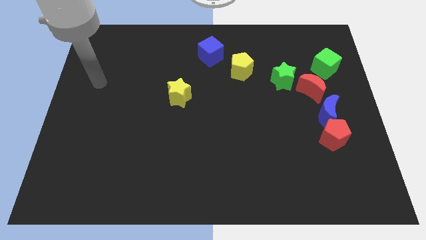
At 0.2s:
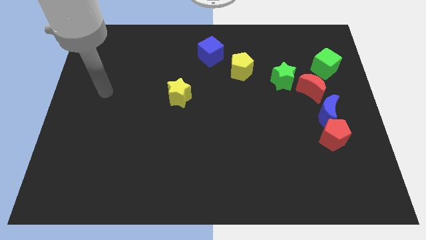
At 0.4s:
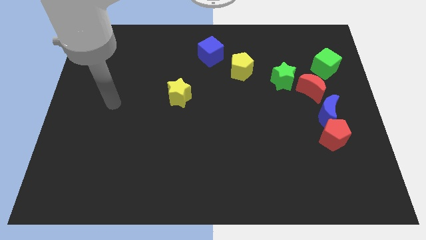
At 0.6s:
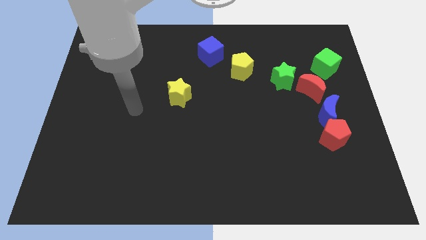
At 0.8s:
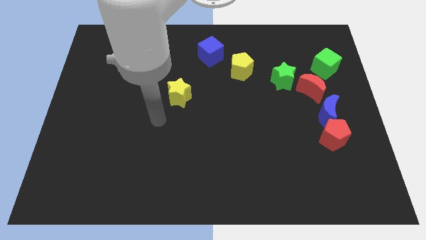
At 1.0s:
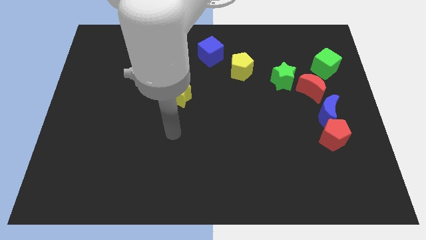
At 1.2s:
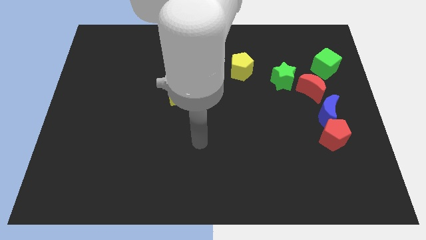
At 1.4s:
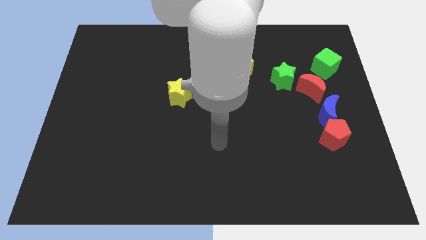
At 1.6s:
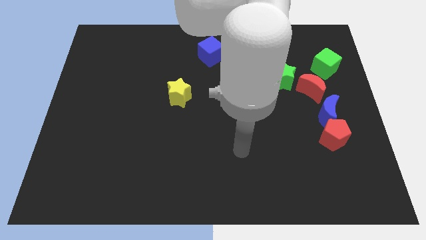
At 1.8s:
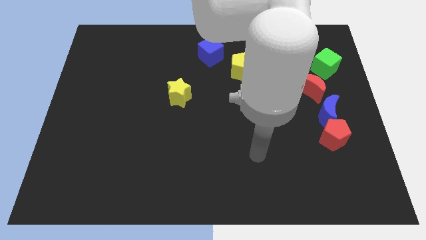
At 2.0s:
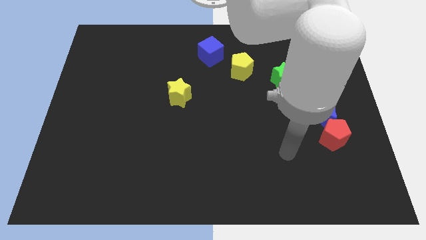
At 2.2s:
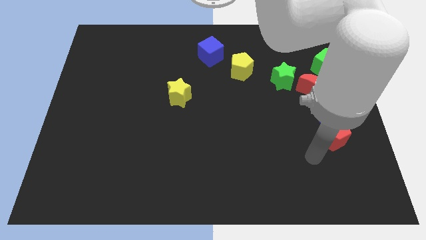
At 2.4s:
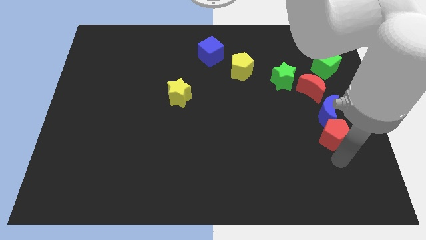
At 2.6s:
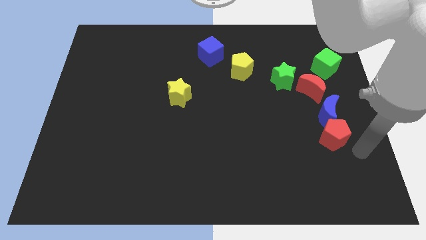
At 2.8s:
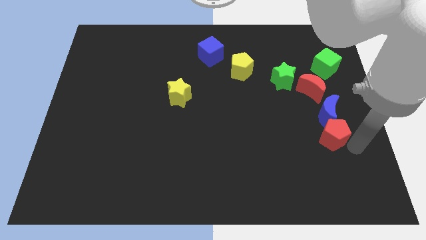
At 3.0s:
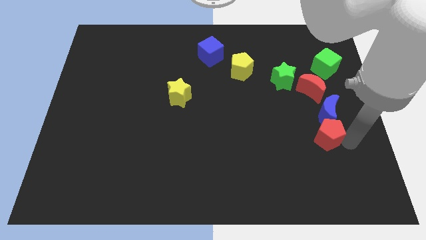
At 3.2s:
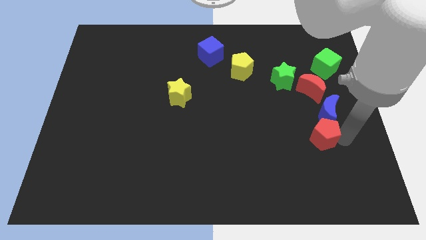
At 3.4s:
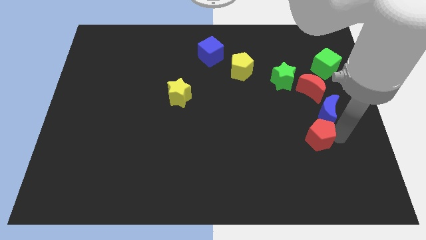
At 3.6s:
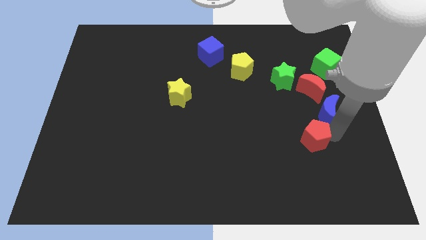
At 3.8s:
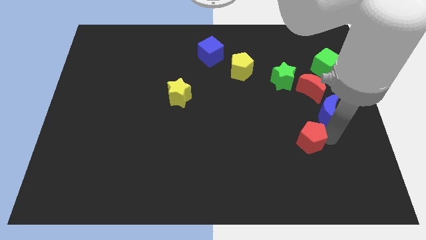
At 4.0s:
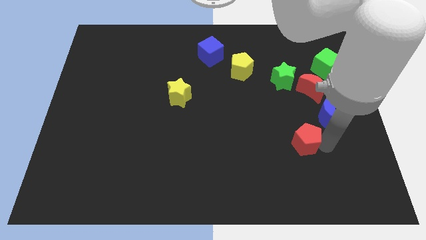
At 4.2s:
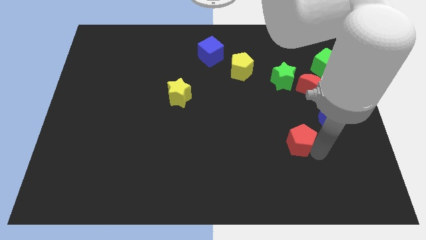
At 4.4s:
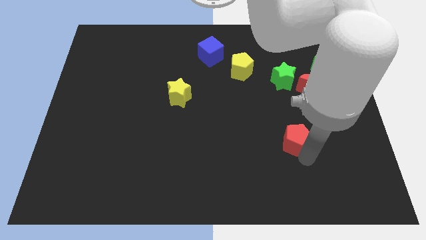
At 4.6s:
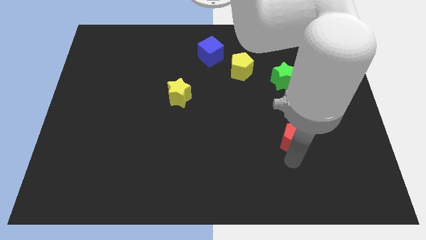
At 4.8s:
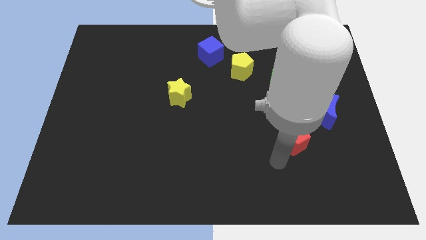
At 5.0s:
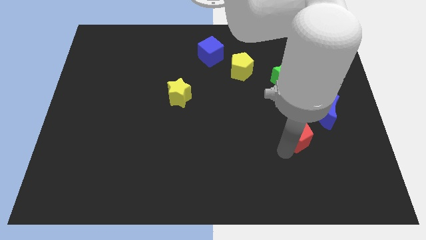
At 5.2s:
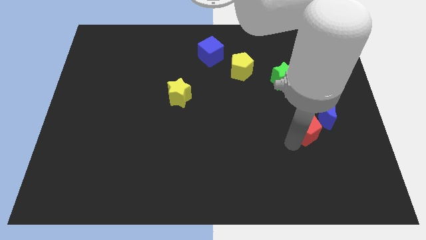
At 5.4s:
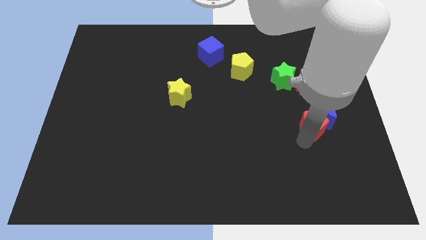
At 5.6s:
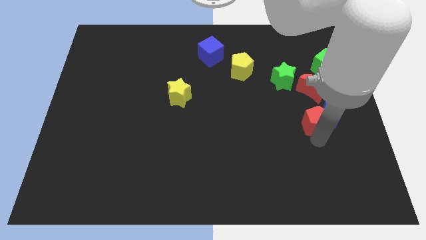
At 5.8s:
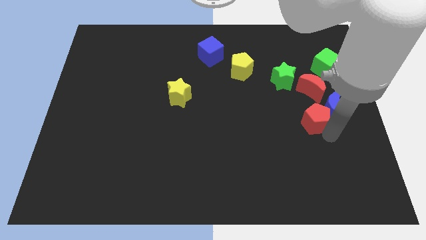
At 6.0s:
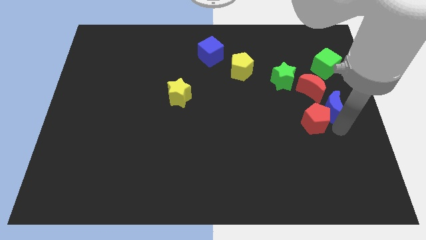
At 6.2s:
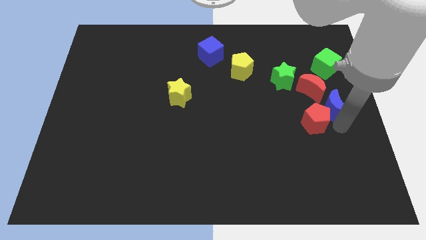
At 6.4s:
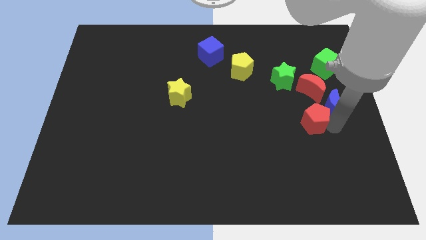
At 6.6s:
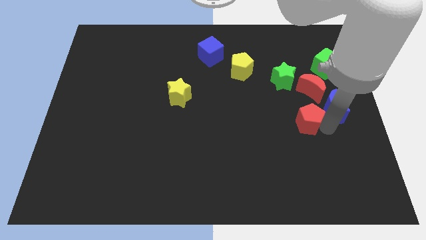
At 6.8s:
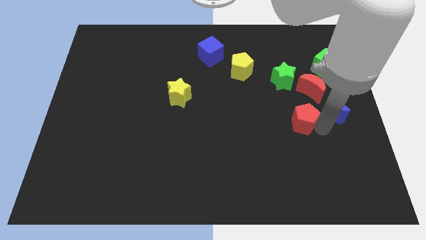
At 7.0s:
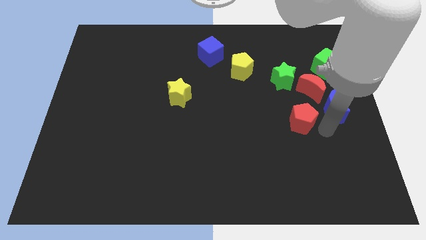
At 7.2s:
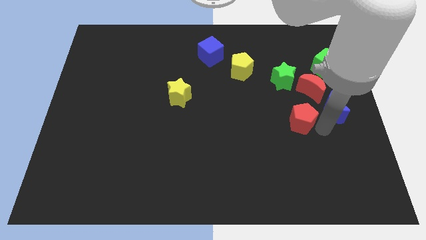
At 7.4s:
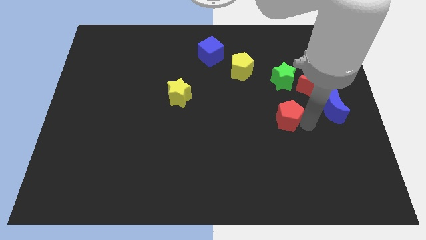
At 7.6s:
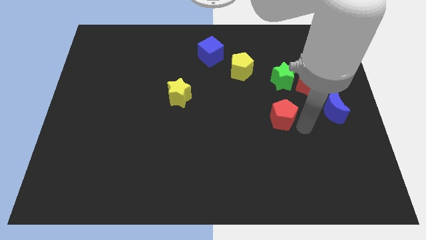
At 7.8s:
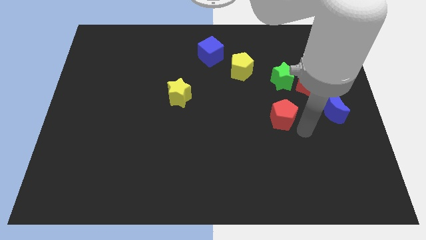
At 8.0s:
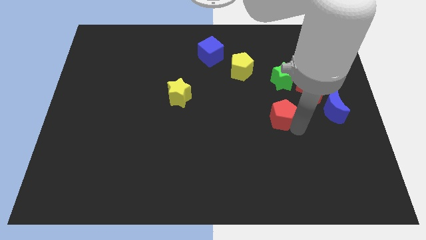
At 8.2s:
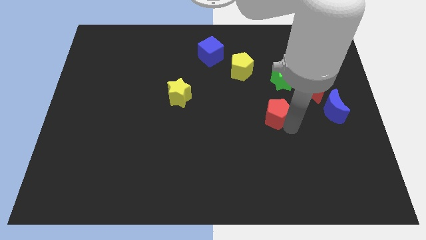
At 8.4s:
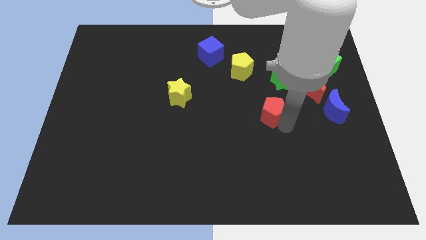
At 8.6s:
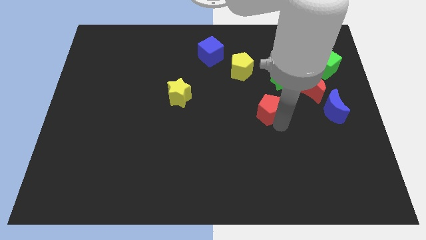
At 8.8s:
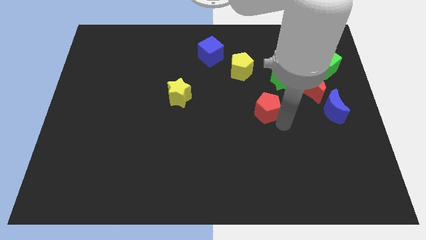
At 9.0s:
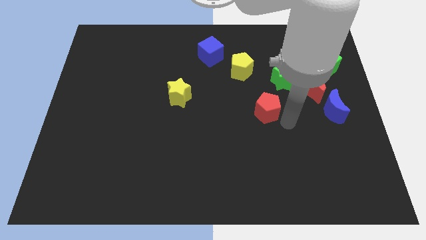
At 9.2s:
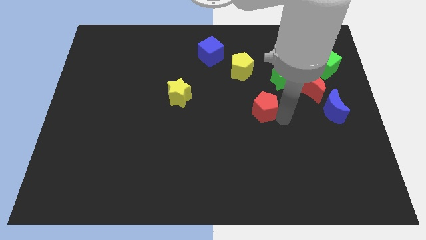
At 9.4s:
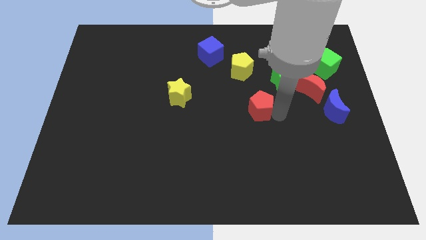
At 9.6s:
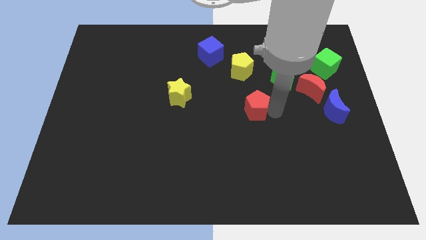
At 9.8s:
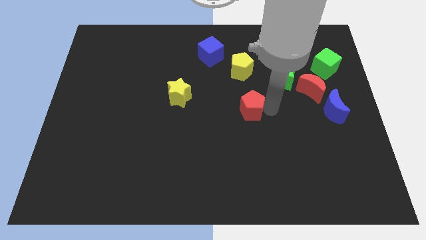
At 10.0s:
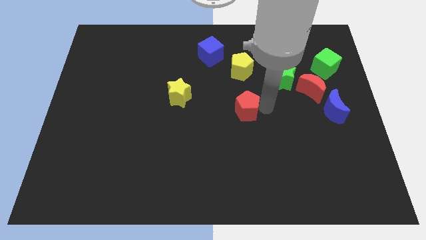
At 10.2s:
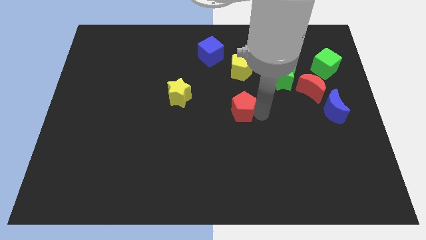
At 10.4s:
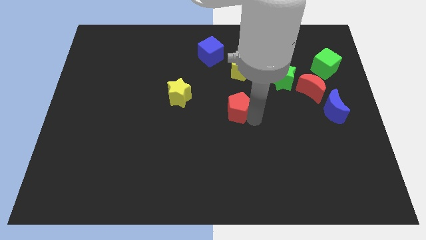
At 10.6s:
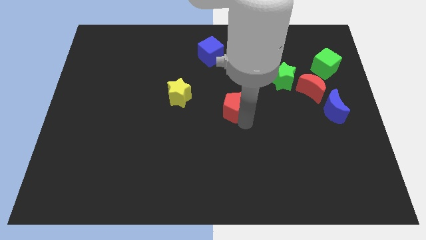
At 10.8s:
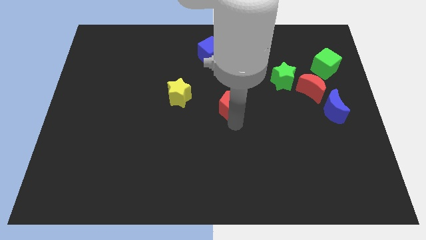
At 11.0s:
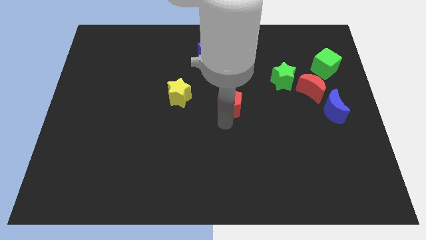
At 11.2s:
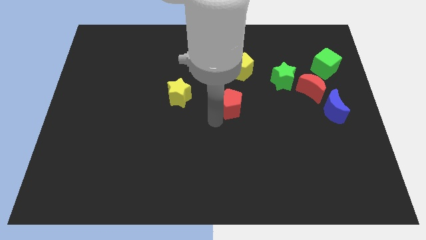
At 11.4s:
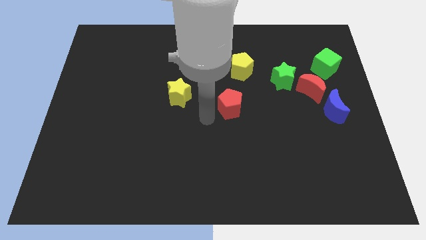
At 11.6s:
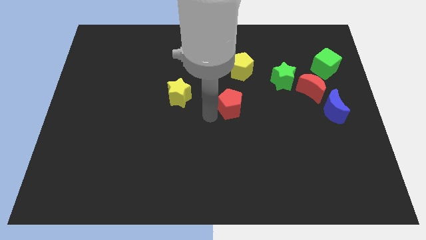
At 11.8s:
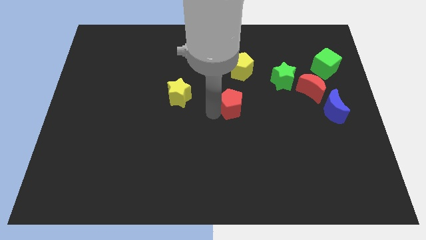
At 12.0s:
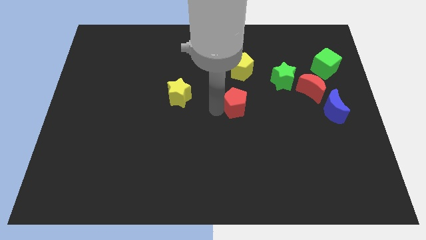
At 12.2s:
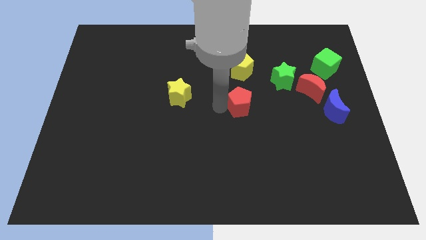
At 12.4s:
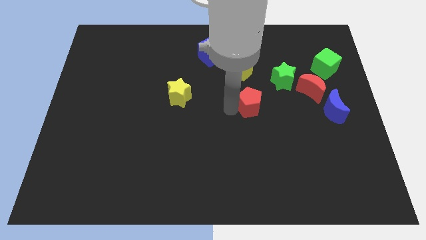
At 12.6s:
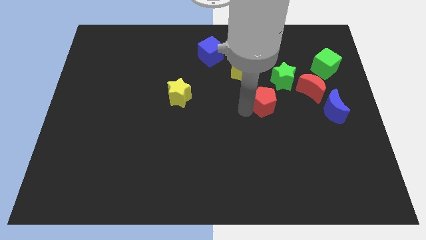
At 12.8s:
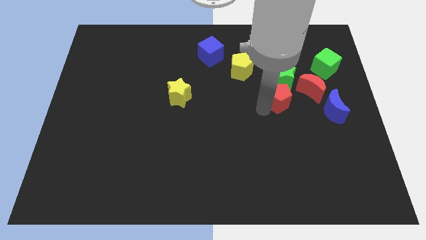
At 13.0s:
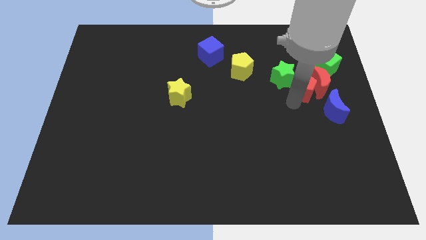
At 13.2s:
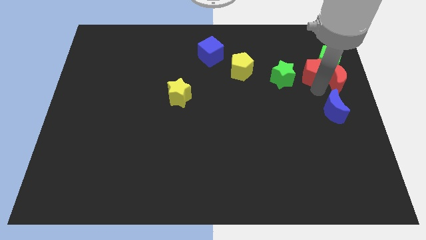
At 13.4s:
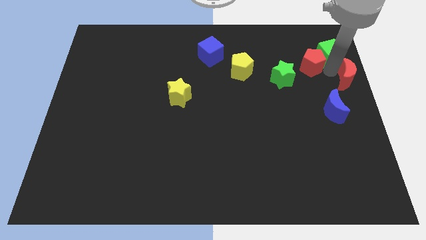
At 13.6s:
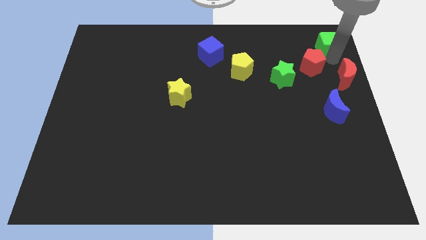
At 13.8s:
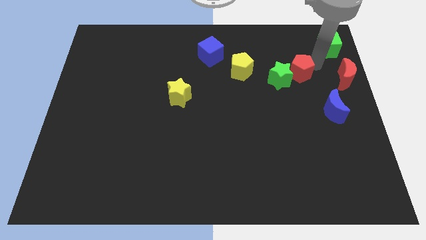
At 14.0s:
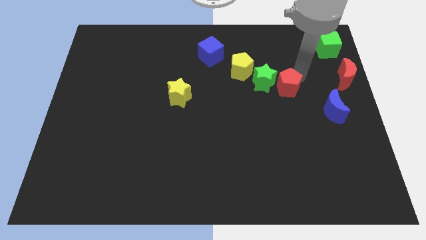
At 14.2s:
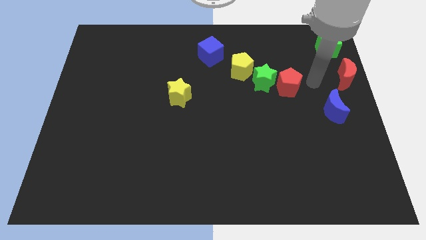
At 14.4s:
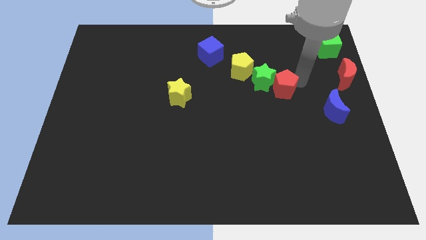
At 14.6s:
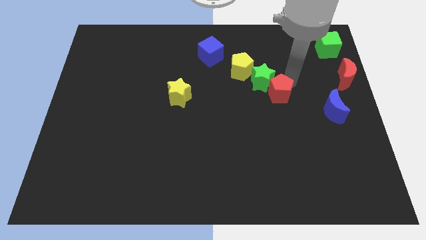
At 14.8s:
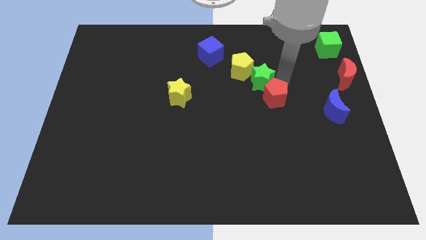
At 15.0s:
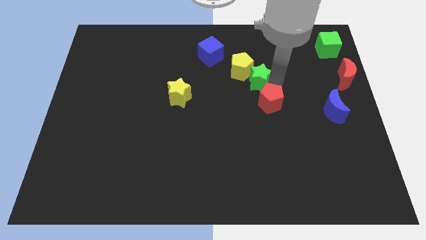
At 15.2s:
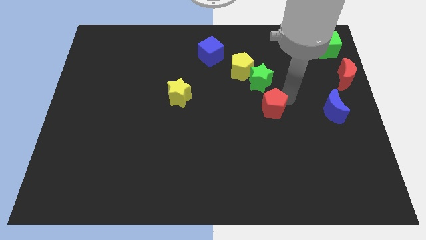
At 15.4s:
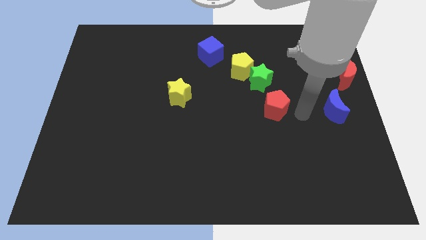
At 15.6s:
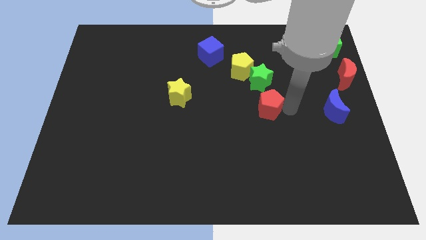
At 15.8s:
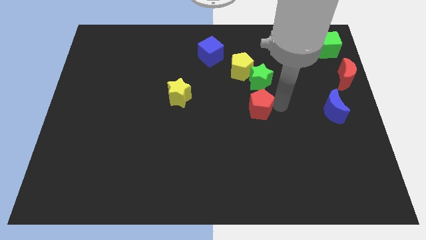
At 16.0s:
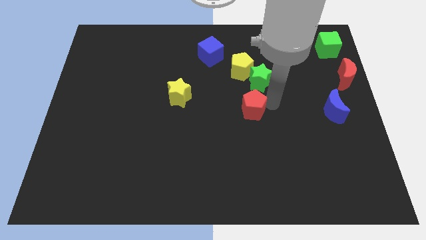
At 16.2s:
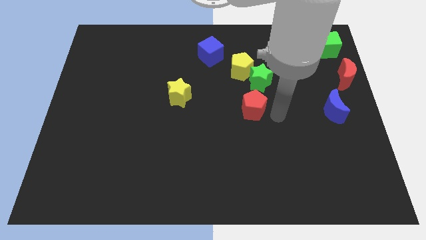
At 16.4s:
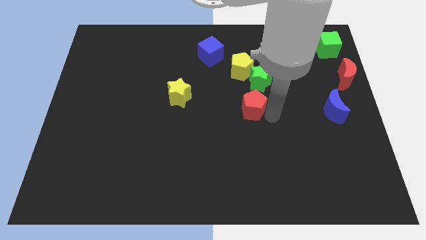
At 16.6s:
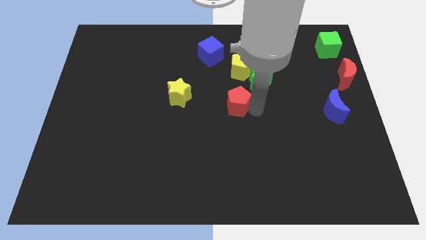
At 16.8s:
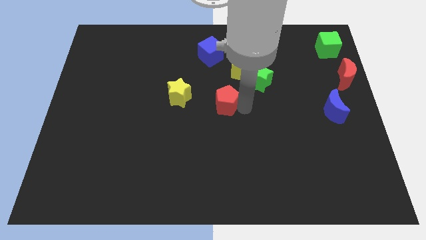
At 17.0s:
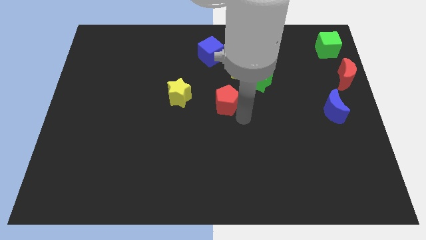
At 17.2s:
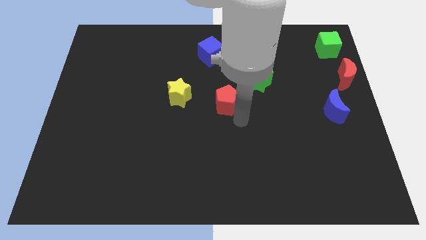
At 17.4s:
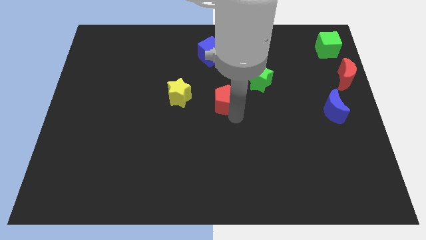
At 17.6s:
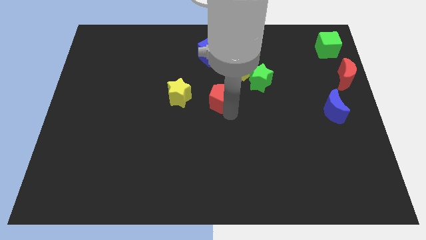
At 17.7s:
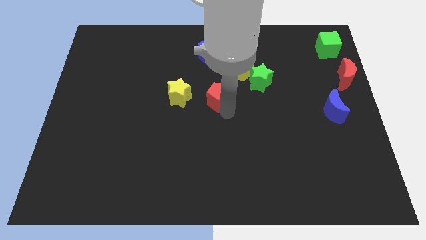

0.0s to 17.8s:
slide the red pentagon to the bottom of the blue cube
